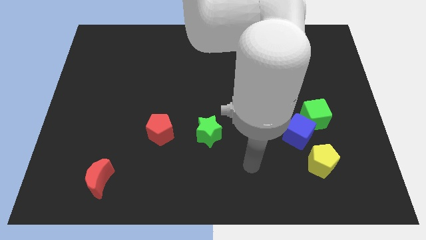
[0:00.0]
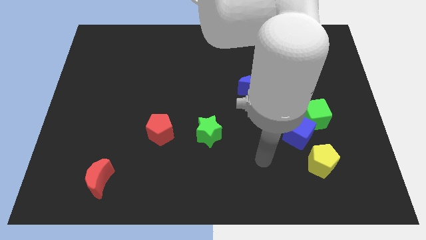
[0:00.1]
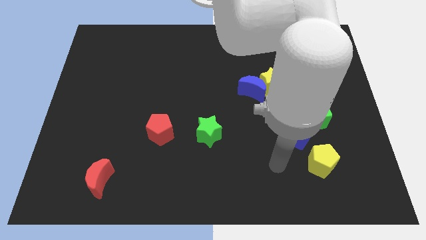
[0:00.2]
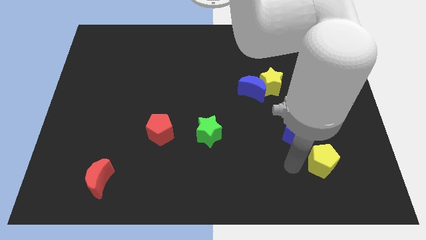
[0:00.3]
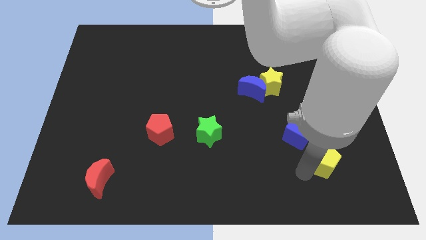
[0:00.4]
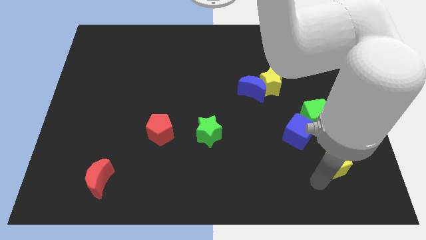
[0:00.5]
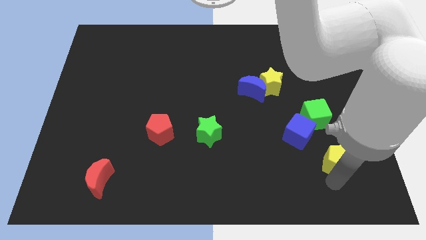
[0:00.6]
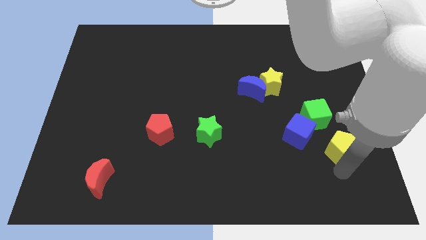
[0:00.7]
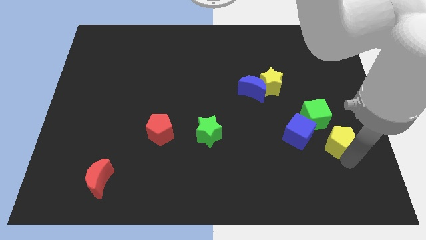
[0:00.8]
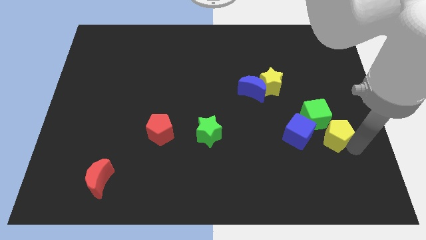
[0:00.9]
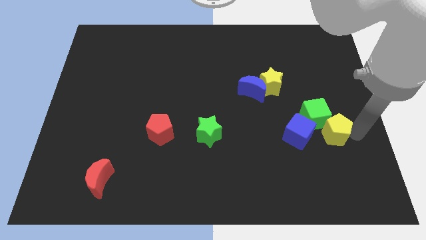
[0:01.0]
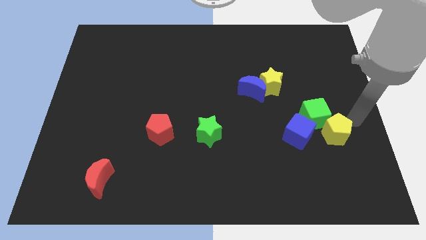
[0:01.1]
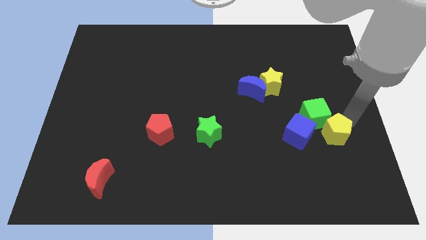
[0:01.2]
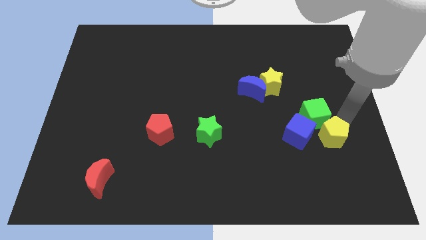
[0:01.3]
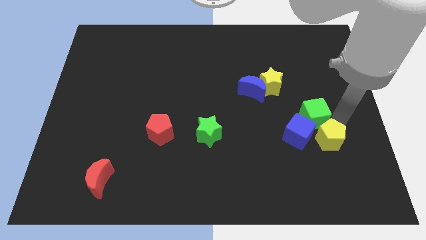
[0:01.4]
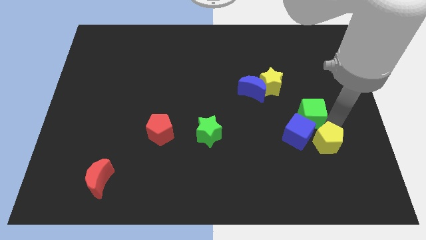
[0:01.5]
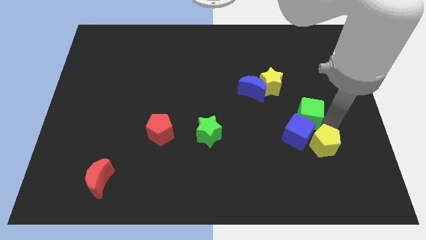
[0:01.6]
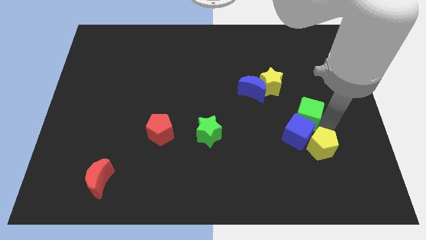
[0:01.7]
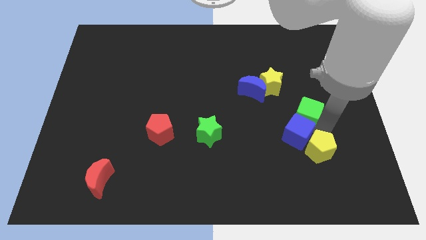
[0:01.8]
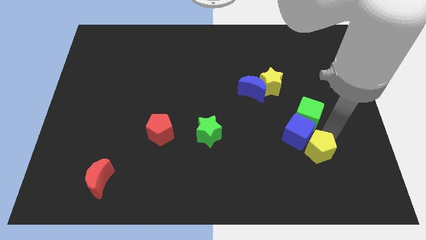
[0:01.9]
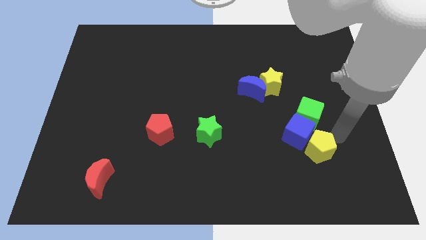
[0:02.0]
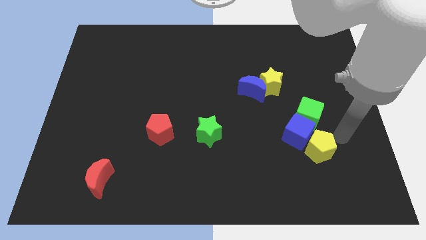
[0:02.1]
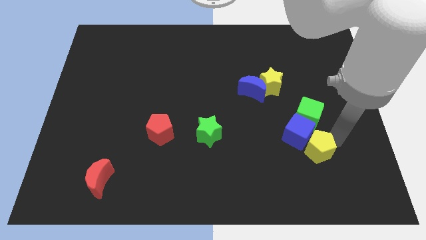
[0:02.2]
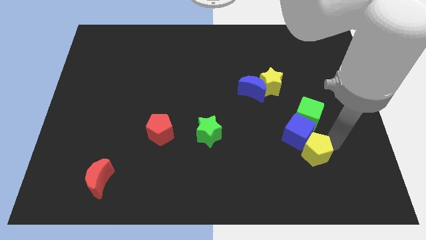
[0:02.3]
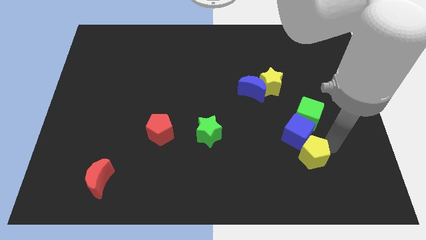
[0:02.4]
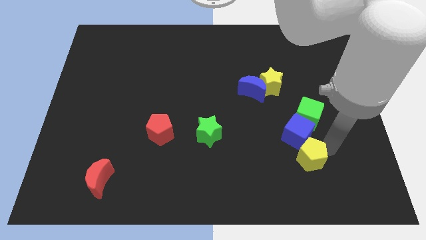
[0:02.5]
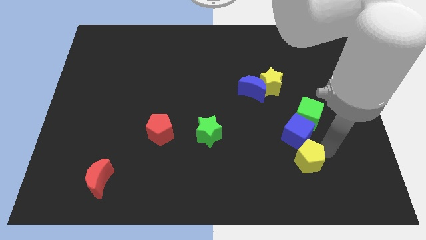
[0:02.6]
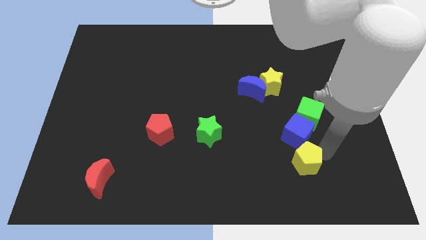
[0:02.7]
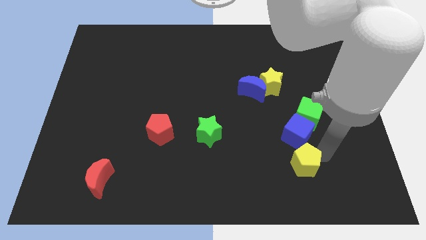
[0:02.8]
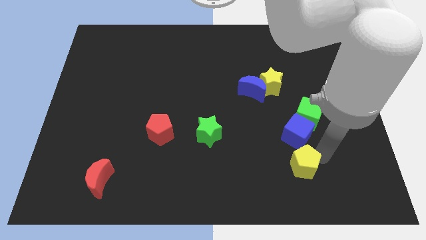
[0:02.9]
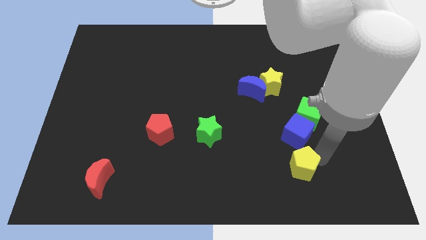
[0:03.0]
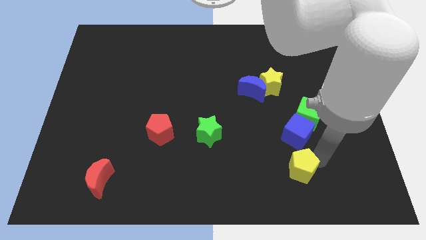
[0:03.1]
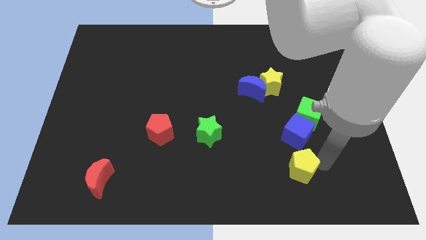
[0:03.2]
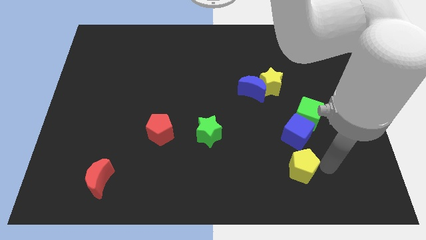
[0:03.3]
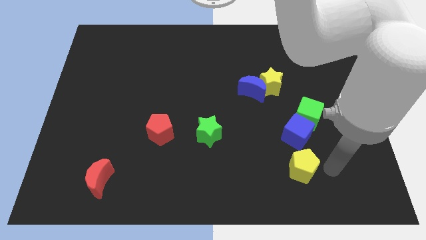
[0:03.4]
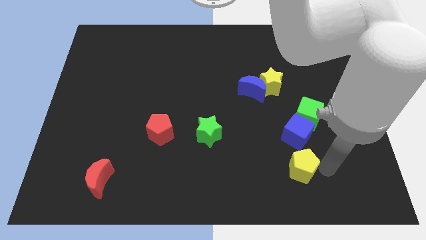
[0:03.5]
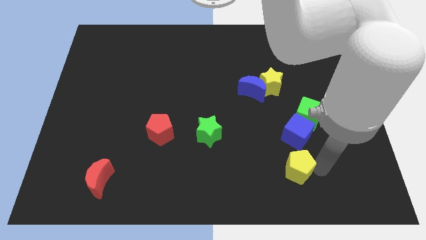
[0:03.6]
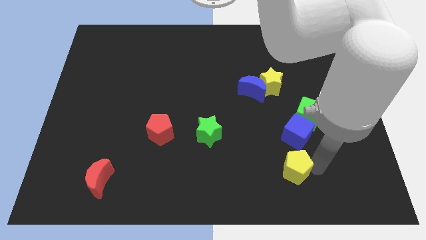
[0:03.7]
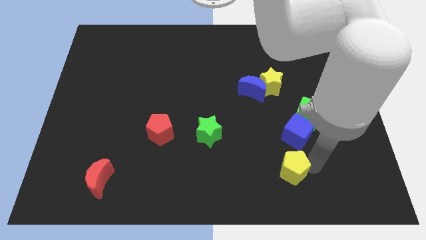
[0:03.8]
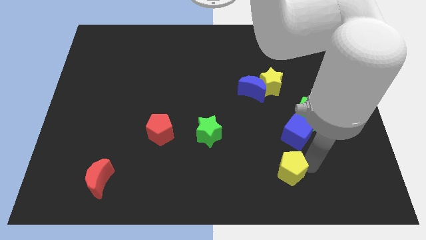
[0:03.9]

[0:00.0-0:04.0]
push the yellow pentagon left a little bit

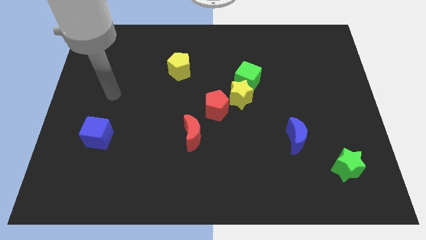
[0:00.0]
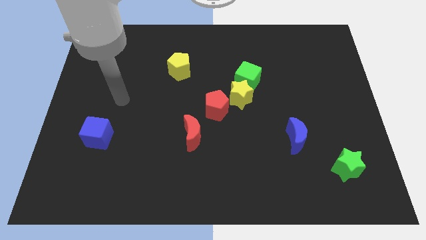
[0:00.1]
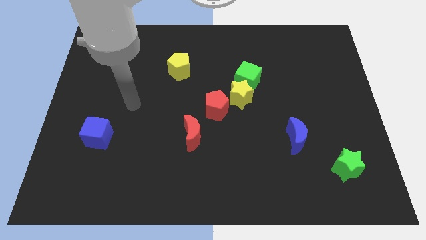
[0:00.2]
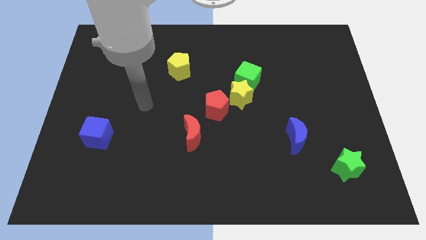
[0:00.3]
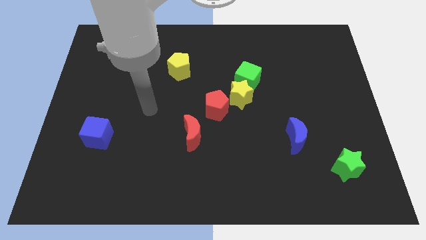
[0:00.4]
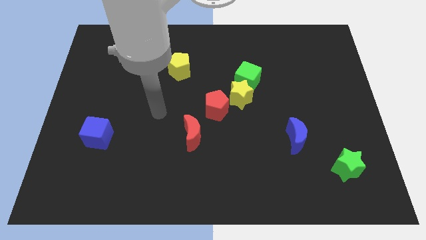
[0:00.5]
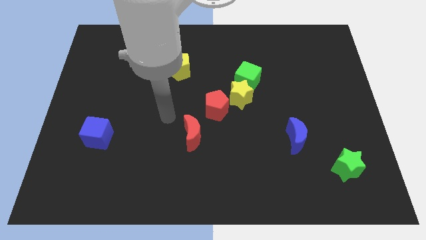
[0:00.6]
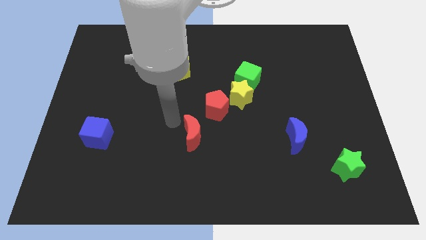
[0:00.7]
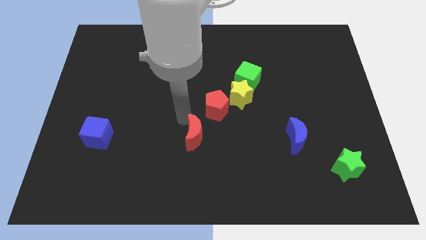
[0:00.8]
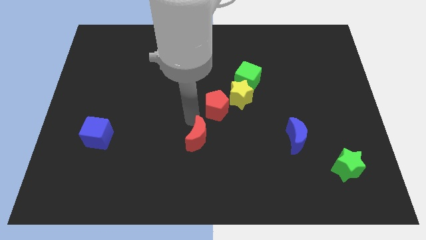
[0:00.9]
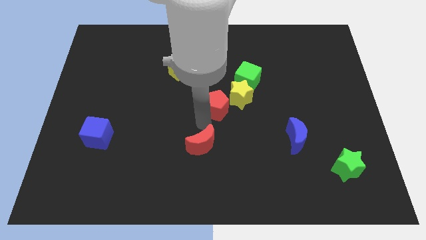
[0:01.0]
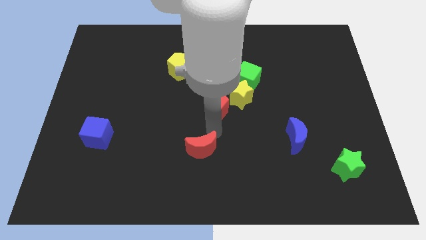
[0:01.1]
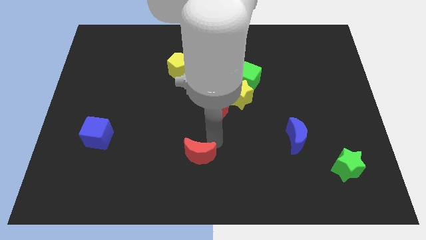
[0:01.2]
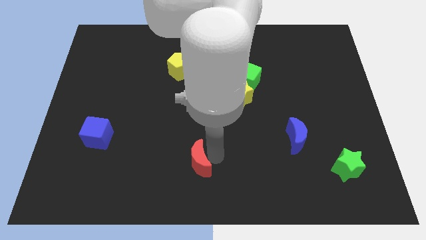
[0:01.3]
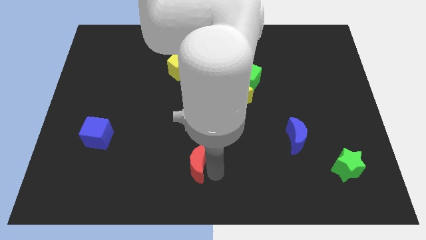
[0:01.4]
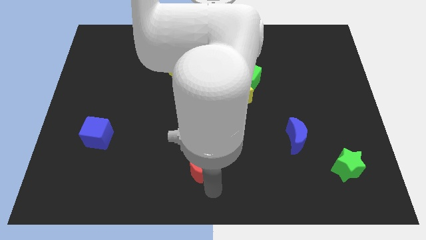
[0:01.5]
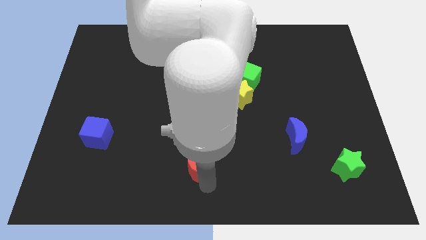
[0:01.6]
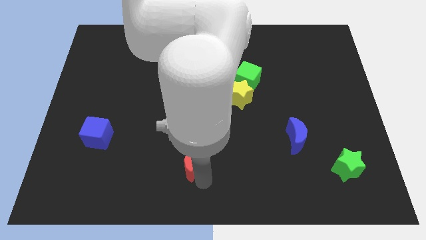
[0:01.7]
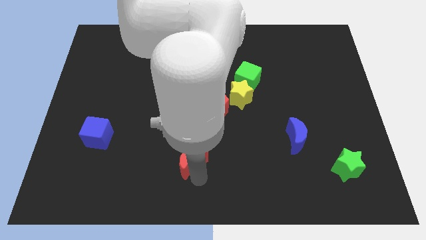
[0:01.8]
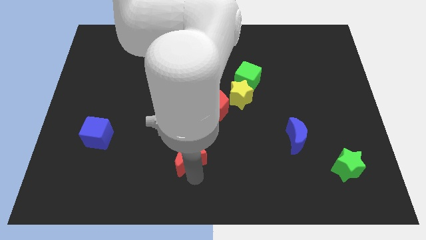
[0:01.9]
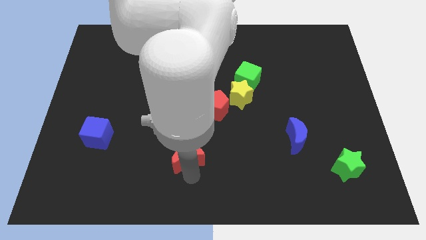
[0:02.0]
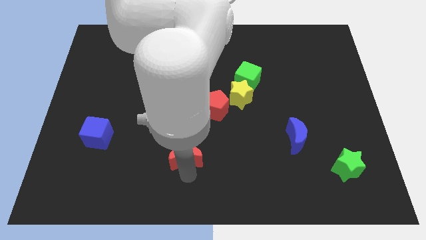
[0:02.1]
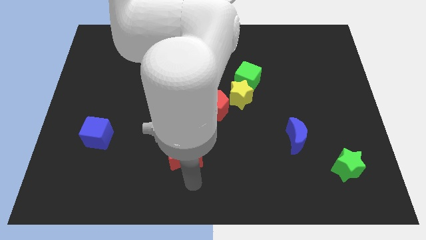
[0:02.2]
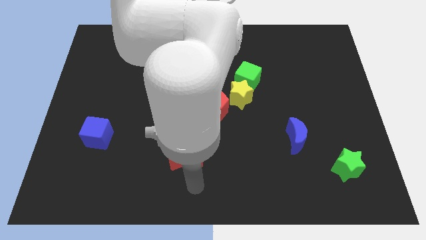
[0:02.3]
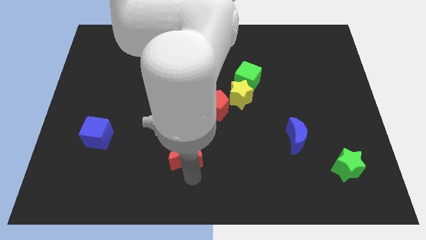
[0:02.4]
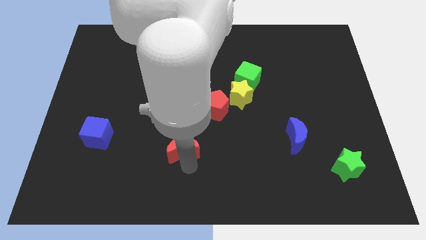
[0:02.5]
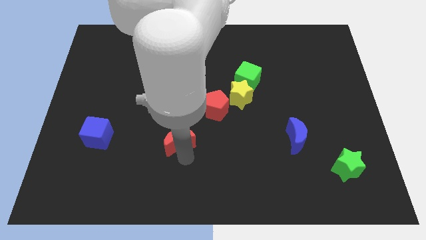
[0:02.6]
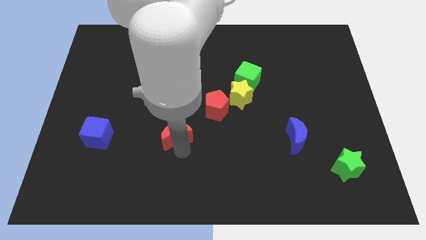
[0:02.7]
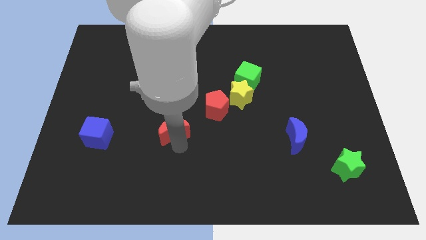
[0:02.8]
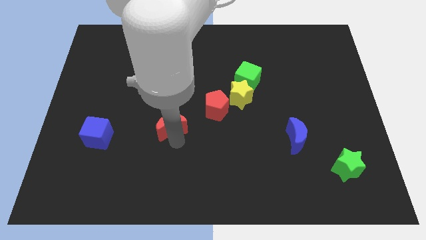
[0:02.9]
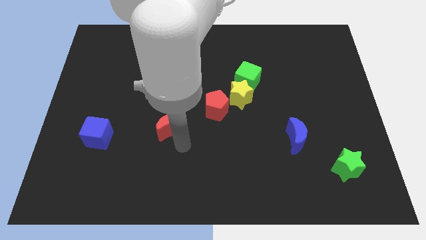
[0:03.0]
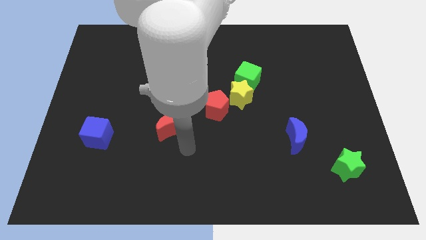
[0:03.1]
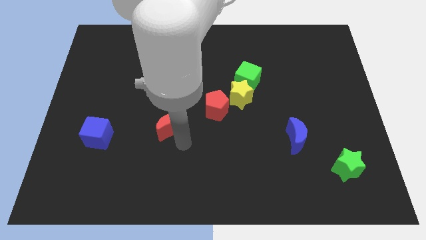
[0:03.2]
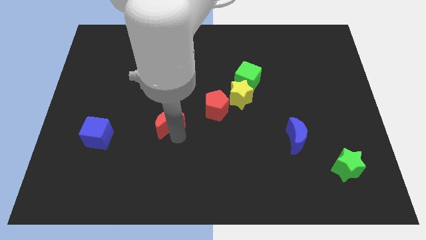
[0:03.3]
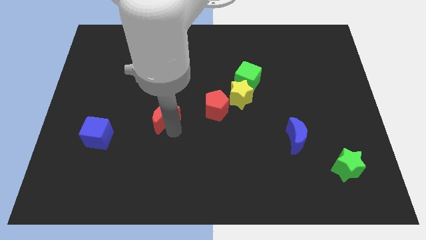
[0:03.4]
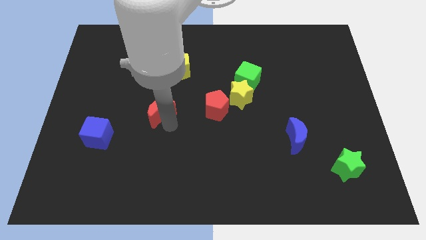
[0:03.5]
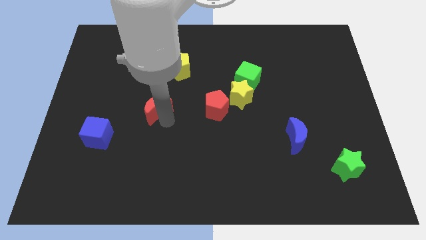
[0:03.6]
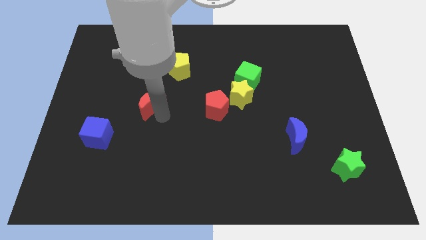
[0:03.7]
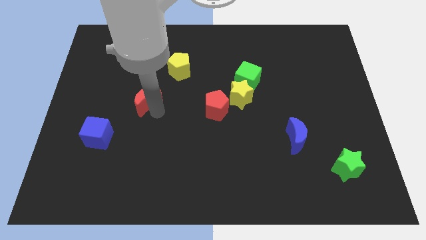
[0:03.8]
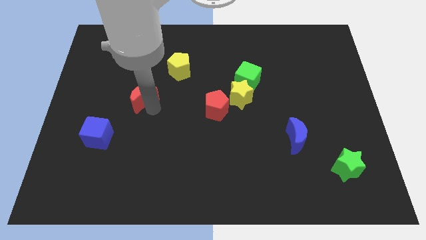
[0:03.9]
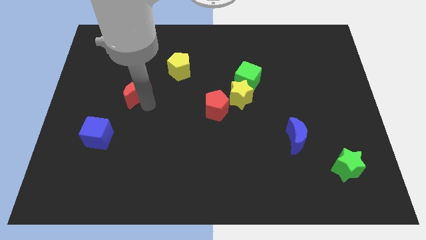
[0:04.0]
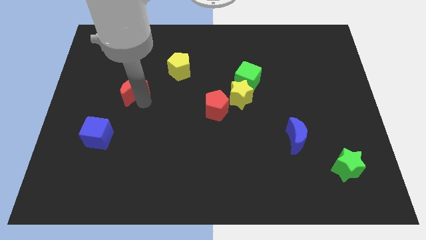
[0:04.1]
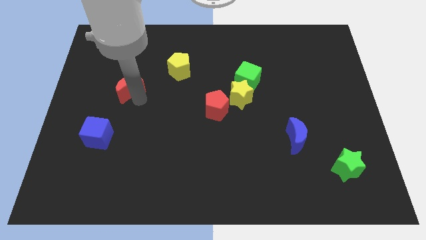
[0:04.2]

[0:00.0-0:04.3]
push the red moon diagonally upwards and to the left
